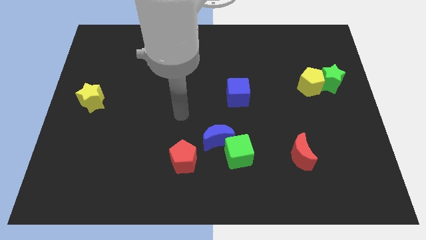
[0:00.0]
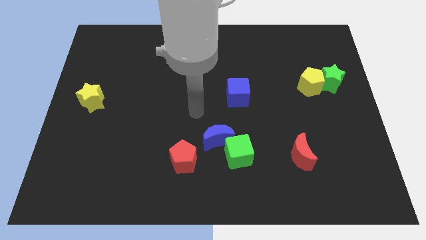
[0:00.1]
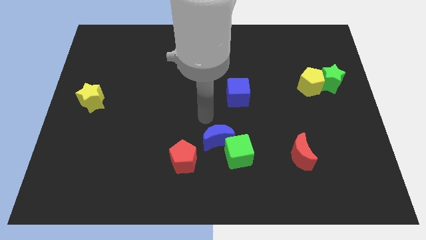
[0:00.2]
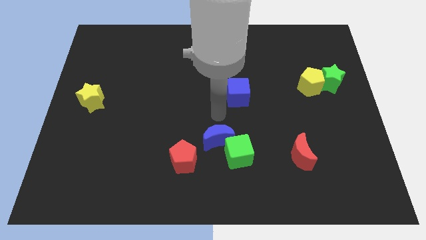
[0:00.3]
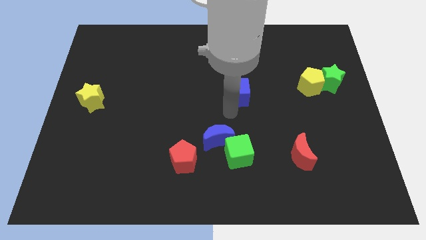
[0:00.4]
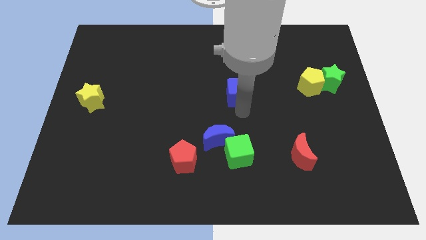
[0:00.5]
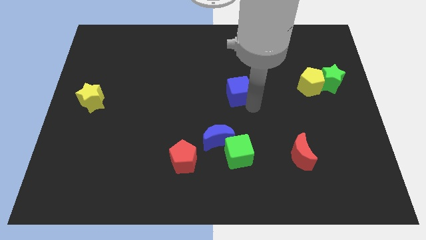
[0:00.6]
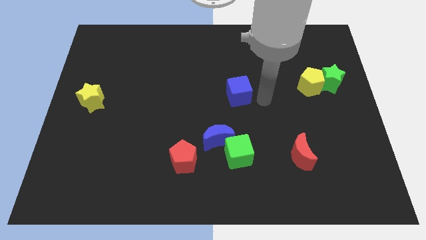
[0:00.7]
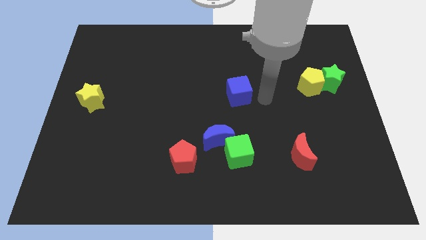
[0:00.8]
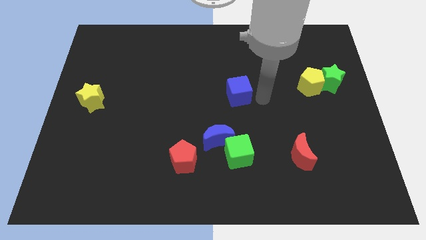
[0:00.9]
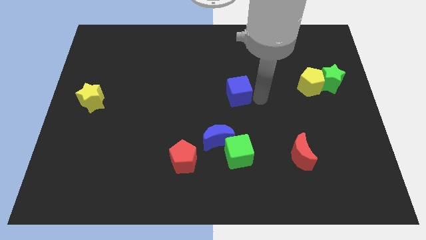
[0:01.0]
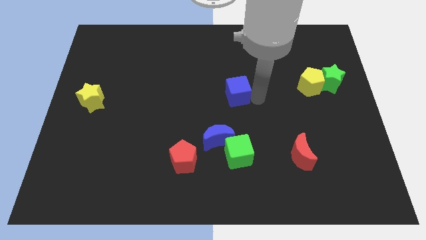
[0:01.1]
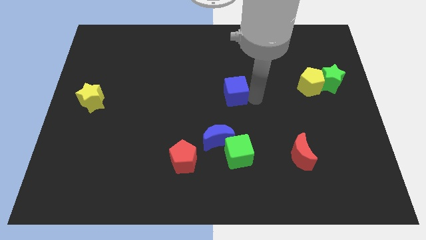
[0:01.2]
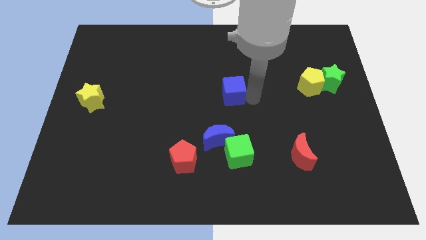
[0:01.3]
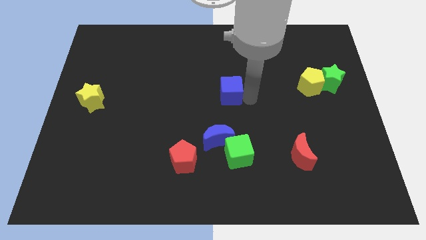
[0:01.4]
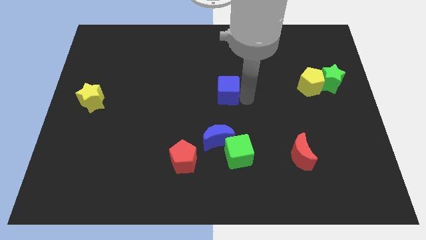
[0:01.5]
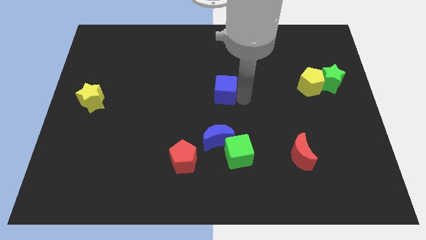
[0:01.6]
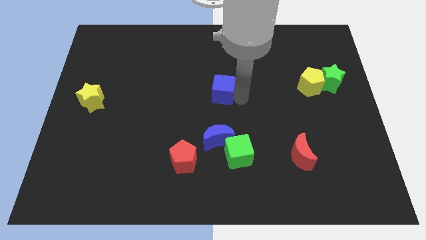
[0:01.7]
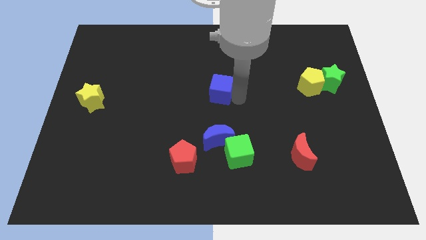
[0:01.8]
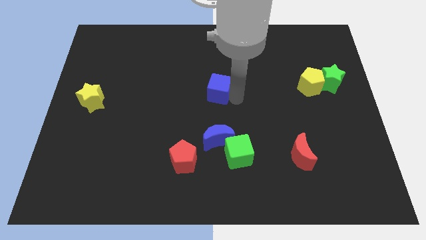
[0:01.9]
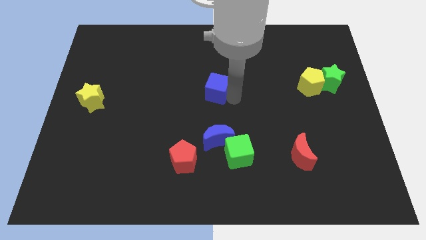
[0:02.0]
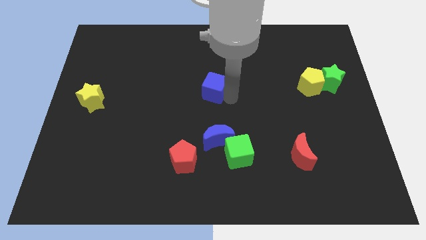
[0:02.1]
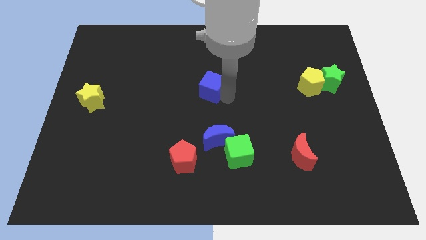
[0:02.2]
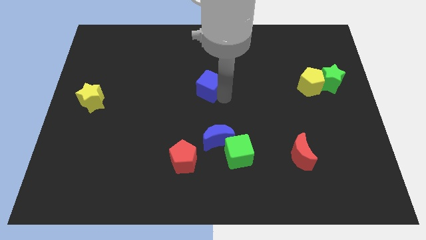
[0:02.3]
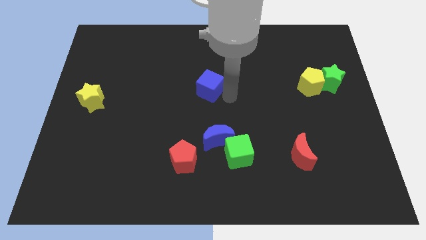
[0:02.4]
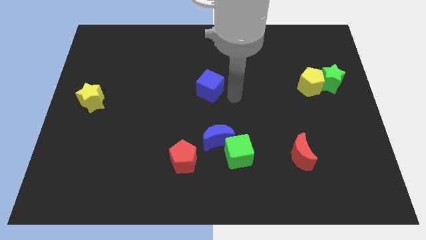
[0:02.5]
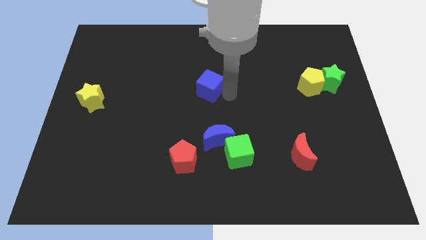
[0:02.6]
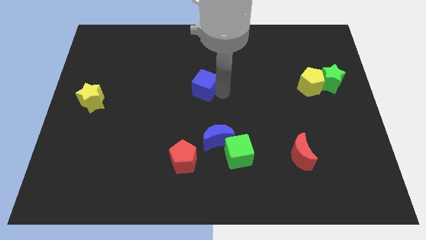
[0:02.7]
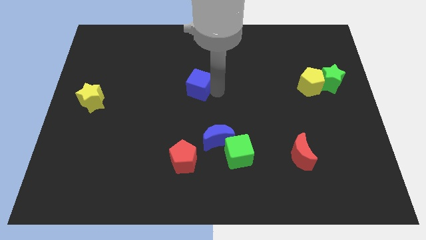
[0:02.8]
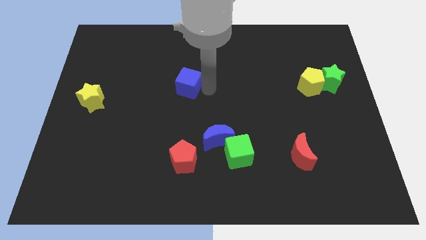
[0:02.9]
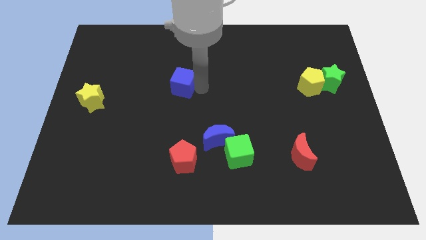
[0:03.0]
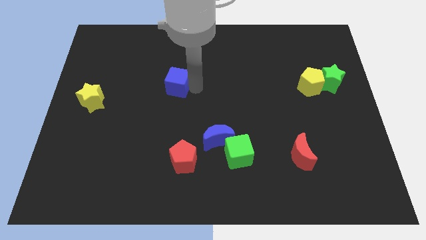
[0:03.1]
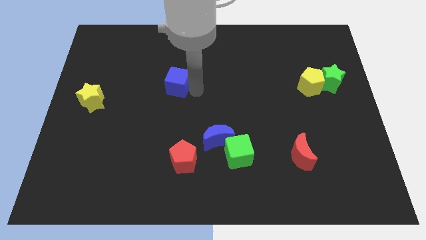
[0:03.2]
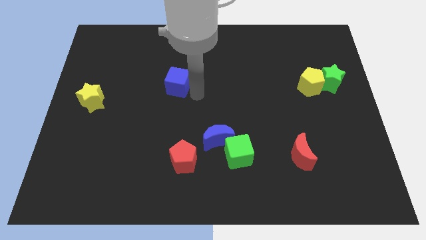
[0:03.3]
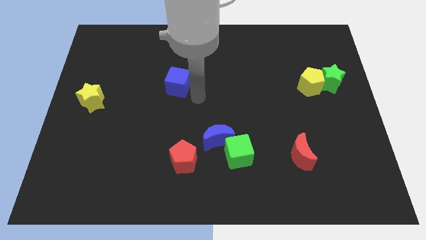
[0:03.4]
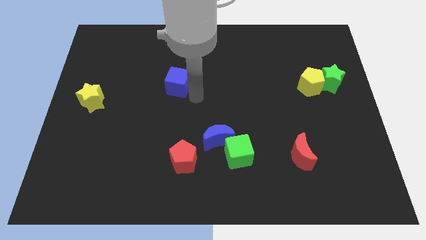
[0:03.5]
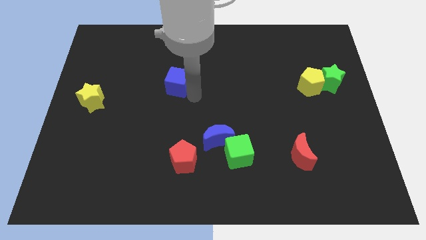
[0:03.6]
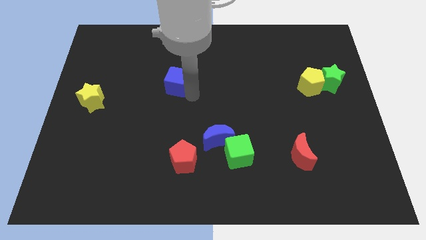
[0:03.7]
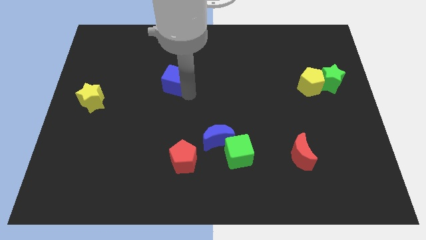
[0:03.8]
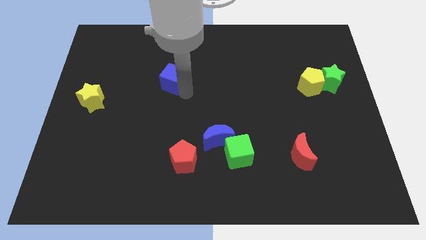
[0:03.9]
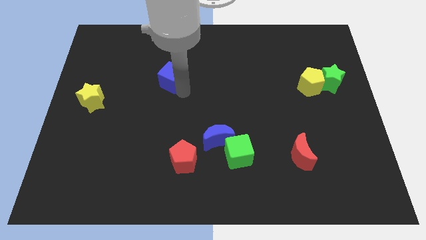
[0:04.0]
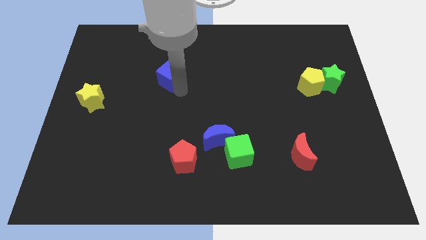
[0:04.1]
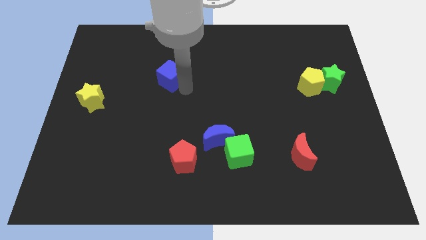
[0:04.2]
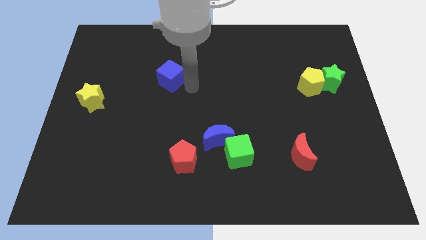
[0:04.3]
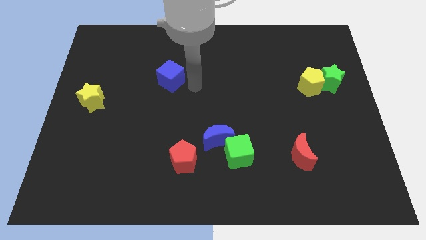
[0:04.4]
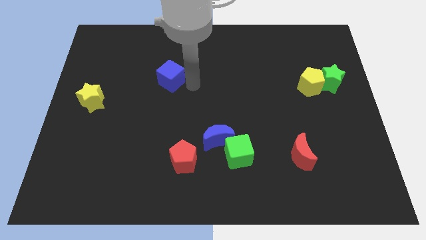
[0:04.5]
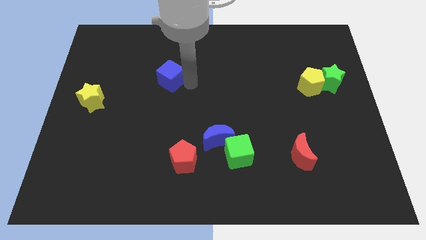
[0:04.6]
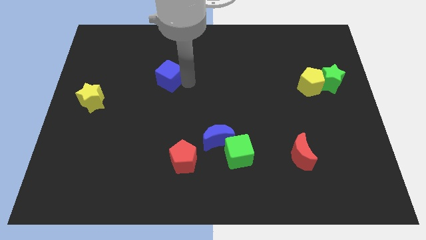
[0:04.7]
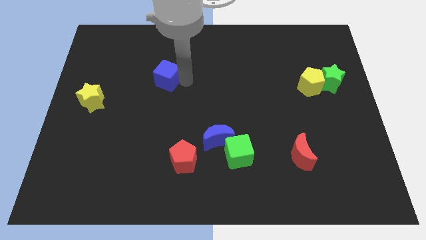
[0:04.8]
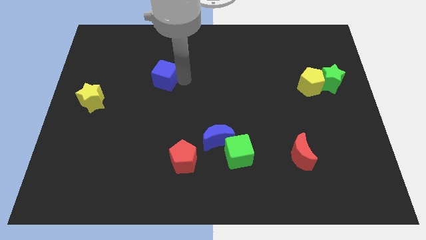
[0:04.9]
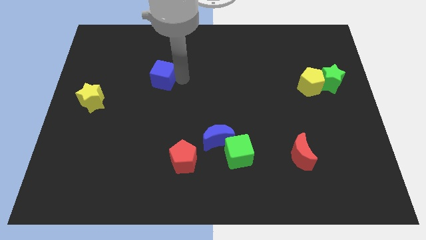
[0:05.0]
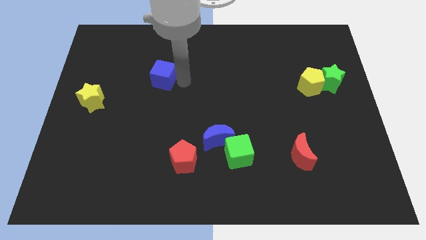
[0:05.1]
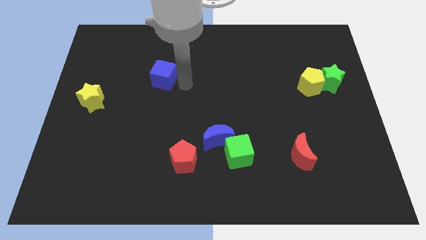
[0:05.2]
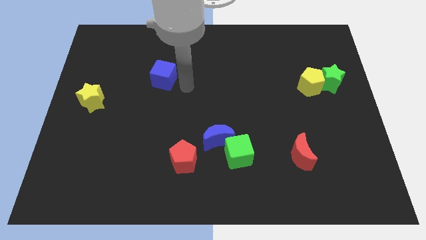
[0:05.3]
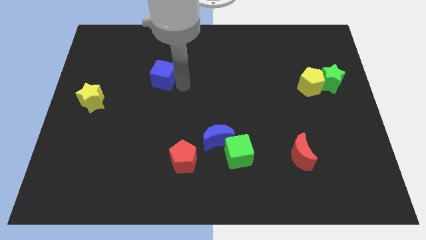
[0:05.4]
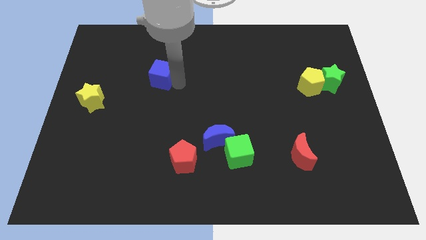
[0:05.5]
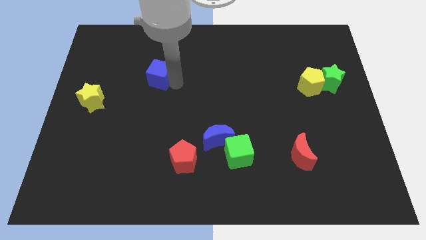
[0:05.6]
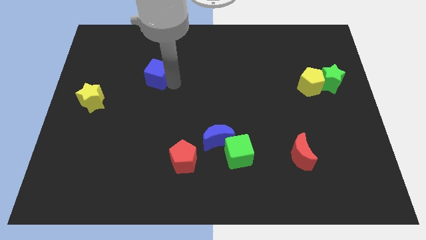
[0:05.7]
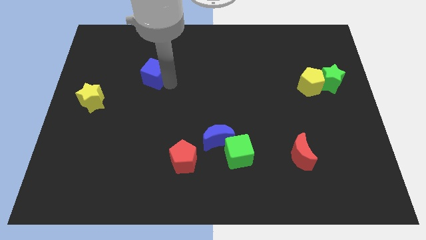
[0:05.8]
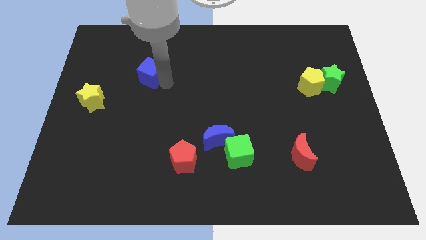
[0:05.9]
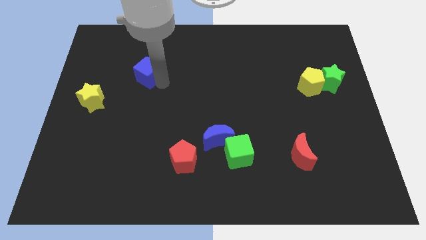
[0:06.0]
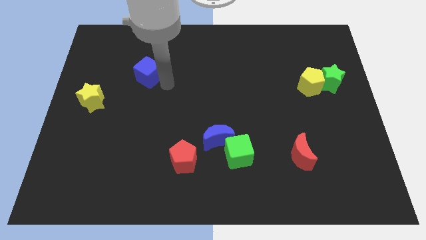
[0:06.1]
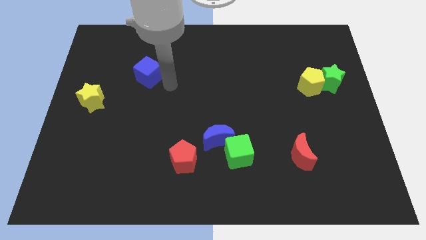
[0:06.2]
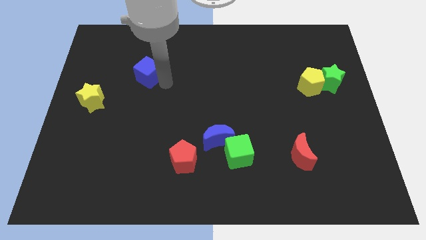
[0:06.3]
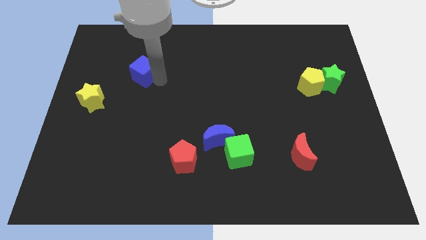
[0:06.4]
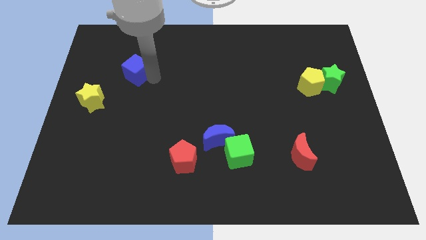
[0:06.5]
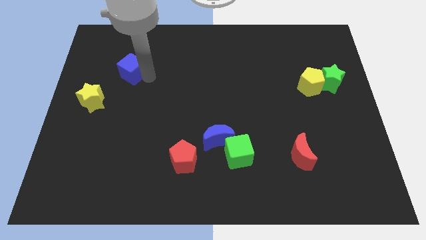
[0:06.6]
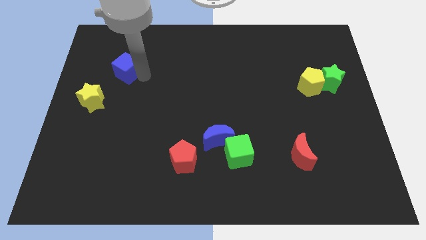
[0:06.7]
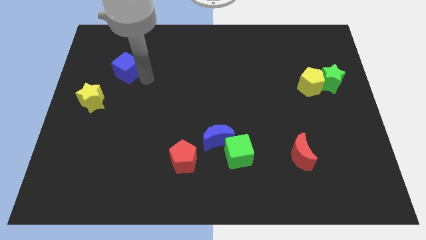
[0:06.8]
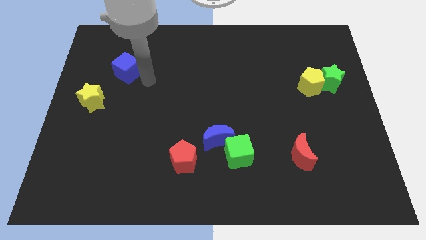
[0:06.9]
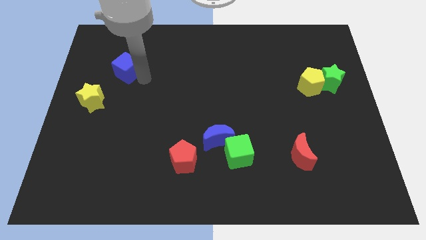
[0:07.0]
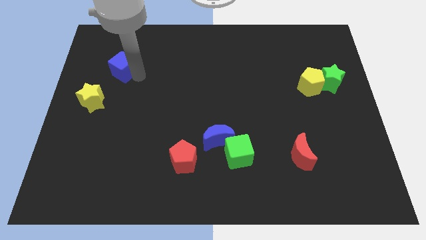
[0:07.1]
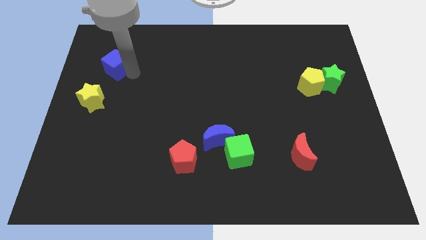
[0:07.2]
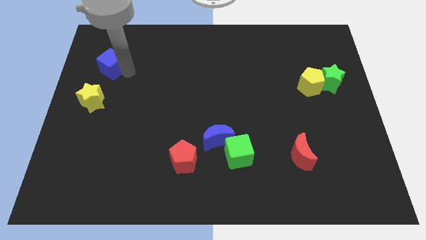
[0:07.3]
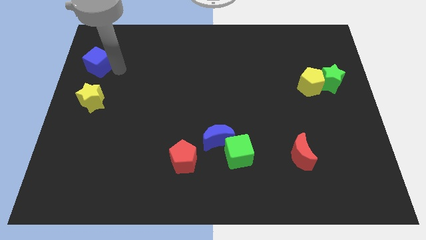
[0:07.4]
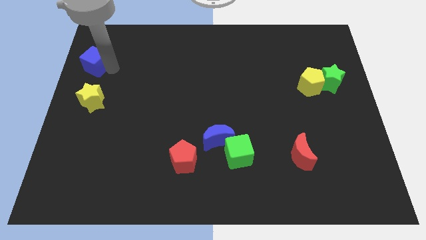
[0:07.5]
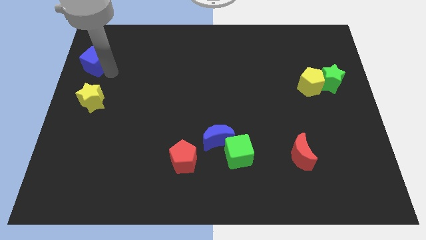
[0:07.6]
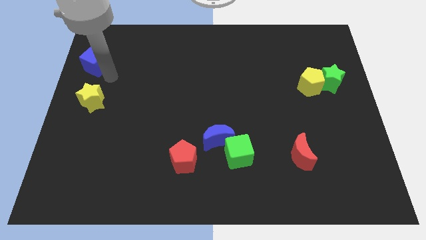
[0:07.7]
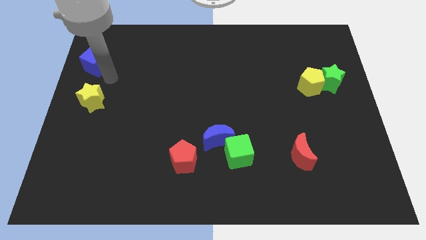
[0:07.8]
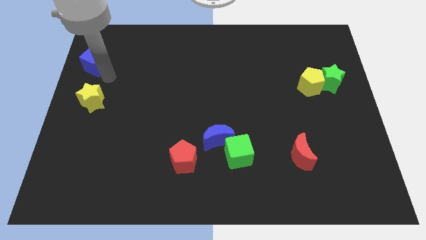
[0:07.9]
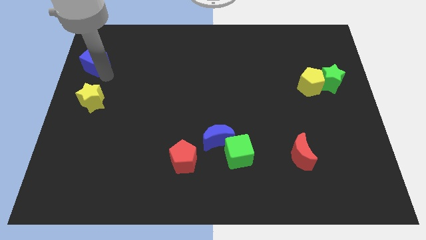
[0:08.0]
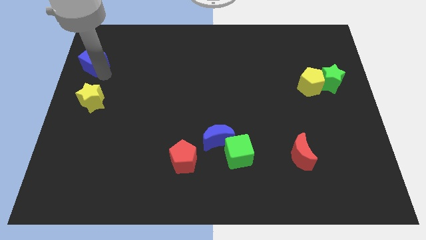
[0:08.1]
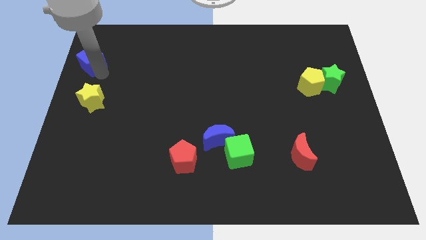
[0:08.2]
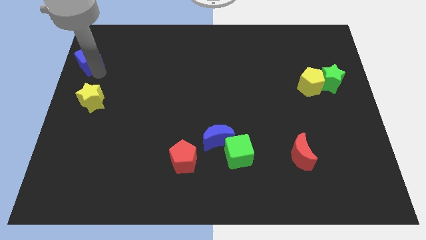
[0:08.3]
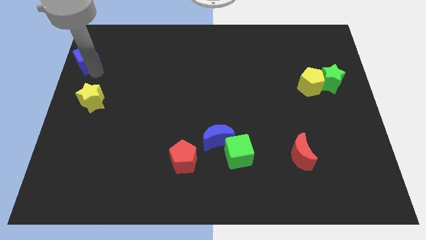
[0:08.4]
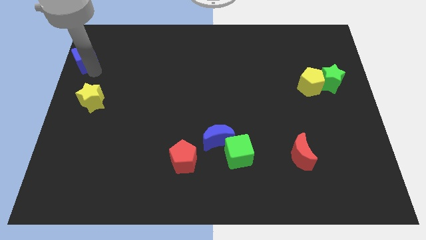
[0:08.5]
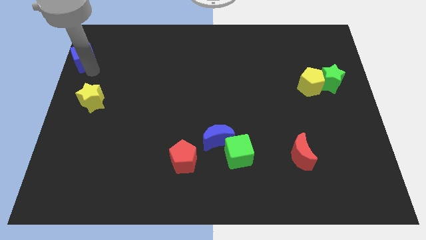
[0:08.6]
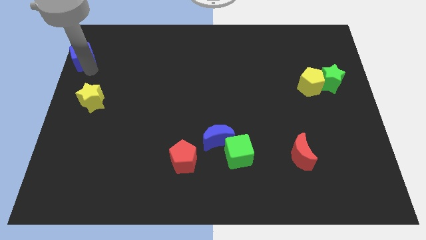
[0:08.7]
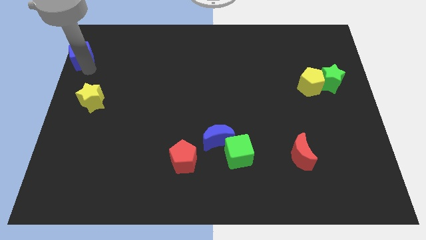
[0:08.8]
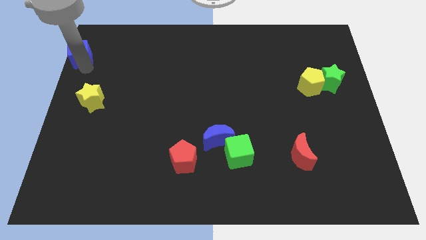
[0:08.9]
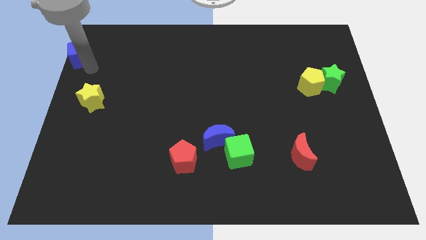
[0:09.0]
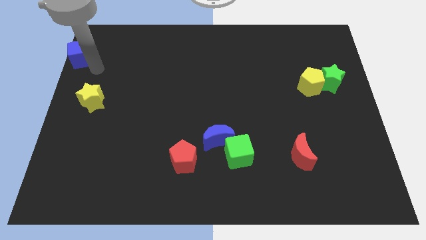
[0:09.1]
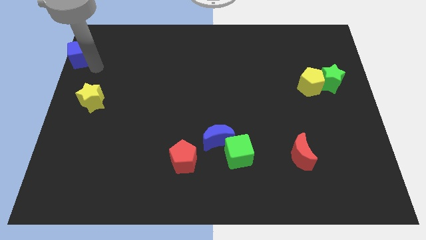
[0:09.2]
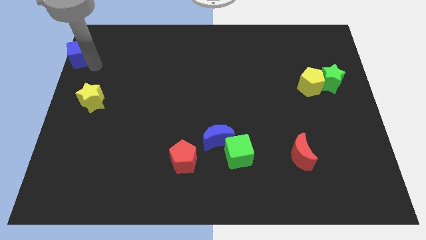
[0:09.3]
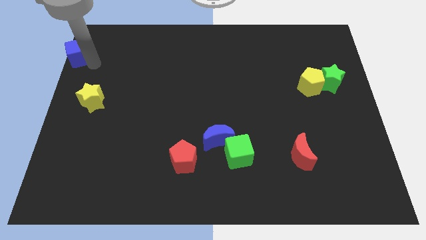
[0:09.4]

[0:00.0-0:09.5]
push the blue cube to the upper left corner
